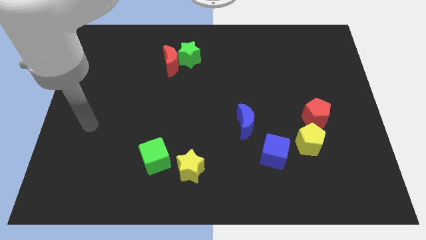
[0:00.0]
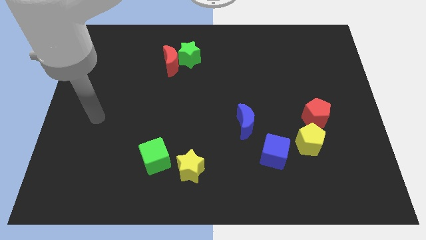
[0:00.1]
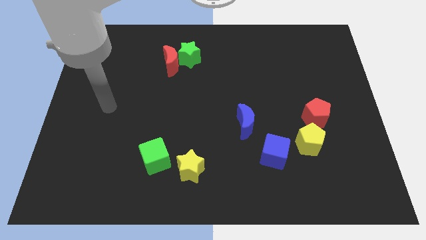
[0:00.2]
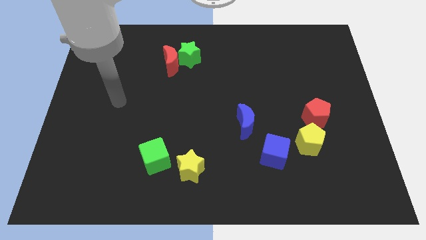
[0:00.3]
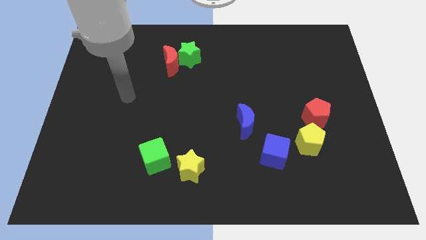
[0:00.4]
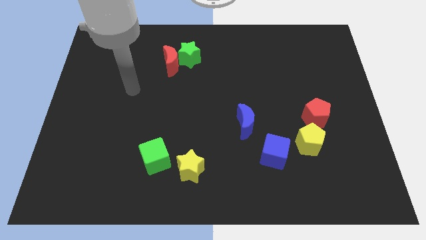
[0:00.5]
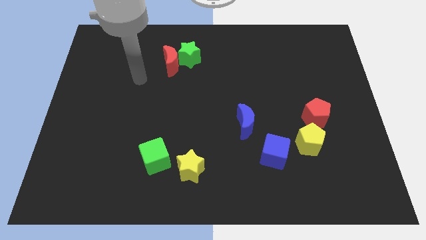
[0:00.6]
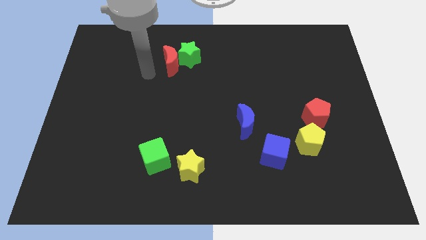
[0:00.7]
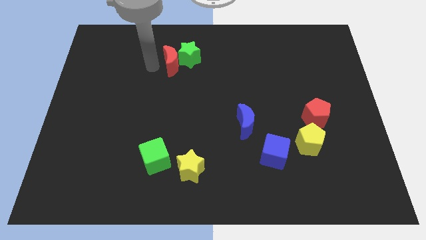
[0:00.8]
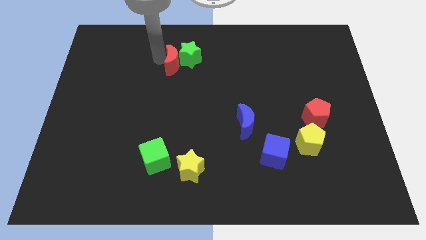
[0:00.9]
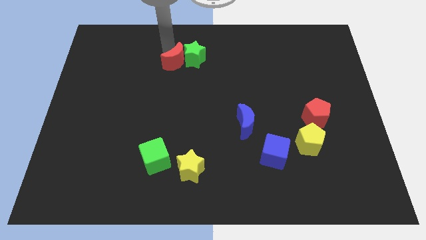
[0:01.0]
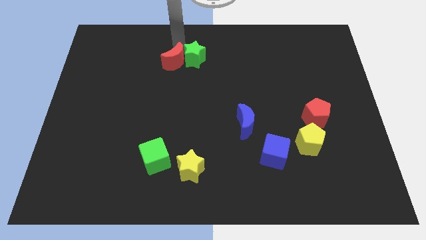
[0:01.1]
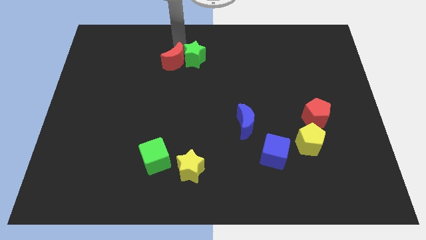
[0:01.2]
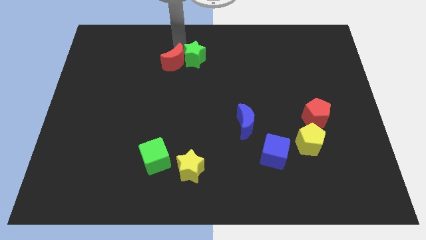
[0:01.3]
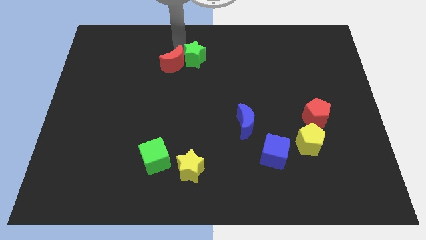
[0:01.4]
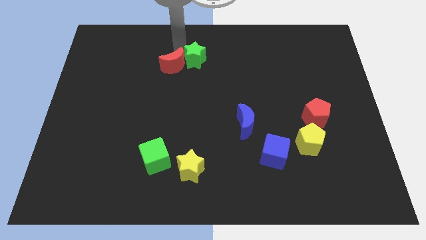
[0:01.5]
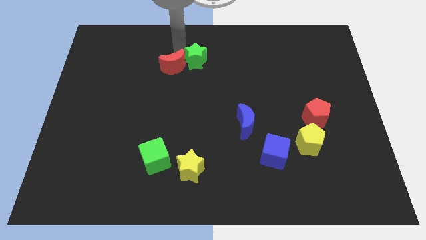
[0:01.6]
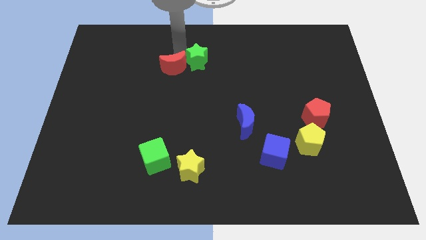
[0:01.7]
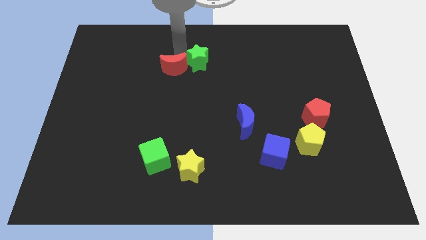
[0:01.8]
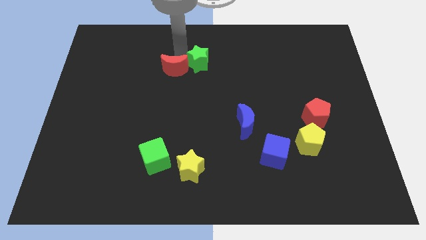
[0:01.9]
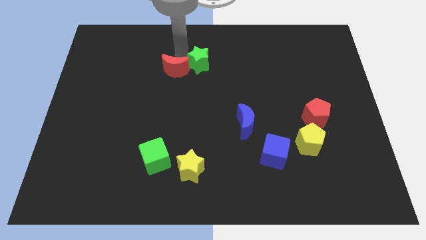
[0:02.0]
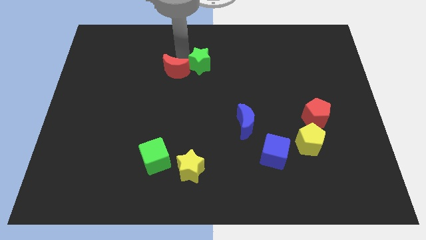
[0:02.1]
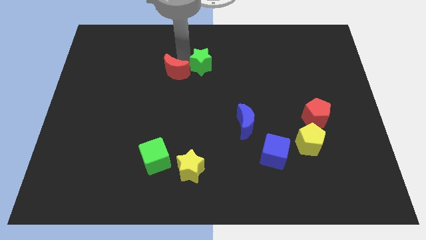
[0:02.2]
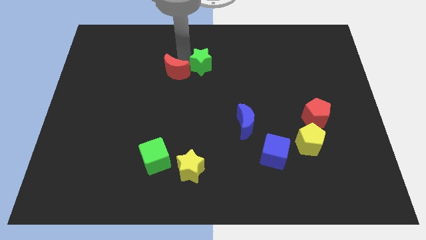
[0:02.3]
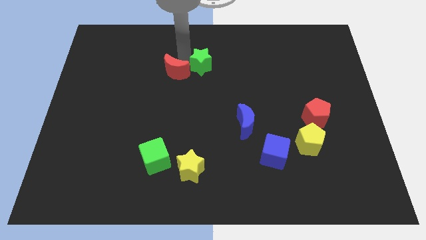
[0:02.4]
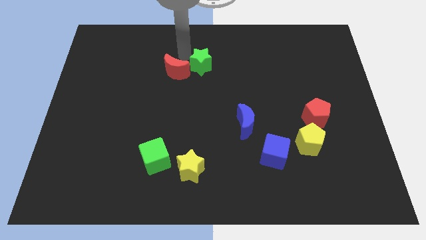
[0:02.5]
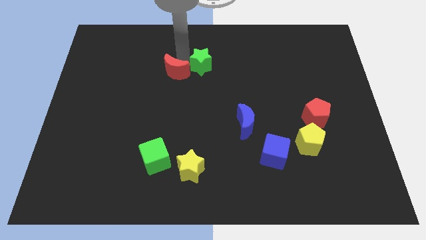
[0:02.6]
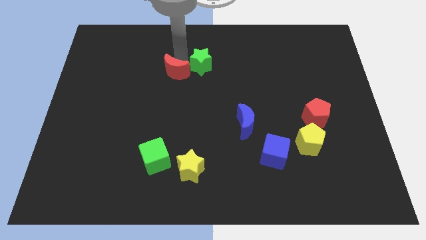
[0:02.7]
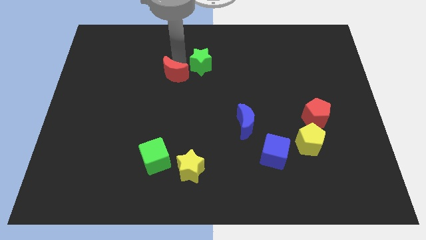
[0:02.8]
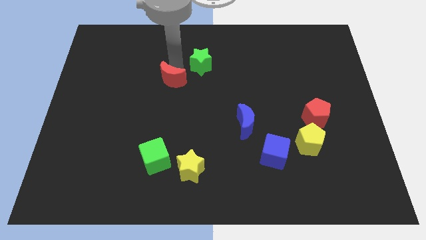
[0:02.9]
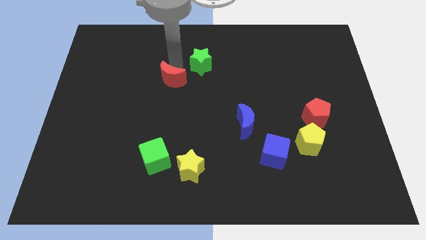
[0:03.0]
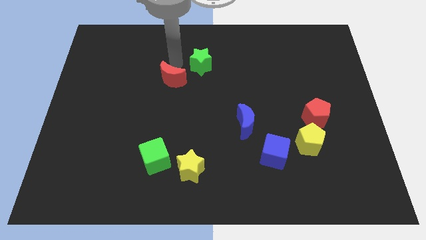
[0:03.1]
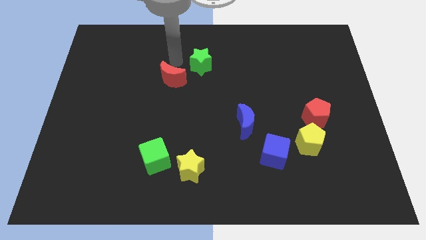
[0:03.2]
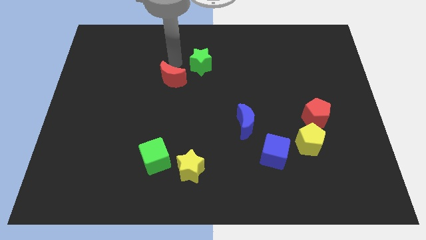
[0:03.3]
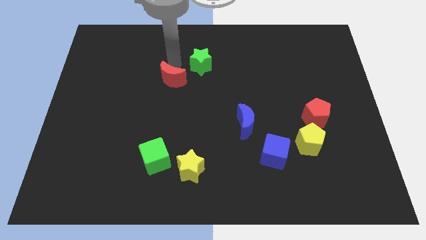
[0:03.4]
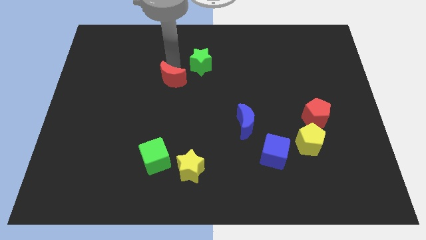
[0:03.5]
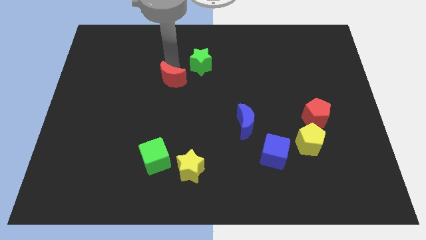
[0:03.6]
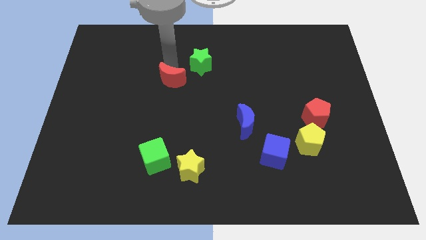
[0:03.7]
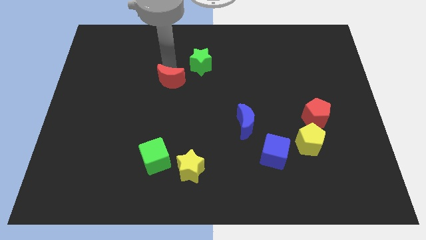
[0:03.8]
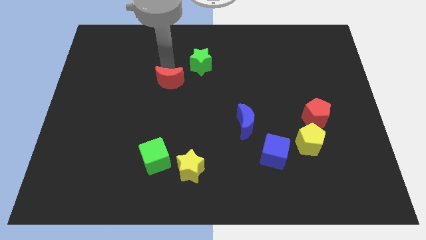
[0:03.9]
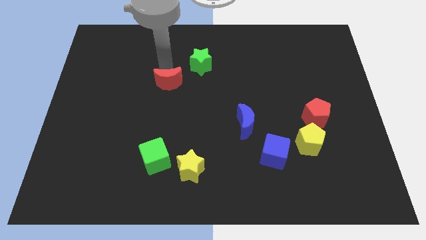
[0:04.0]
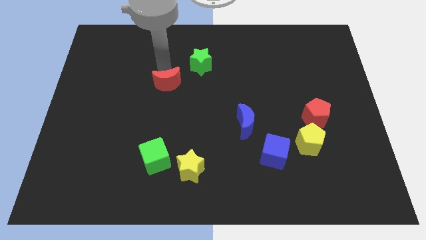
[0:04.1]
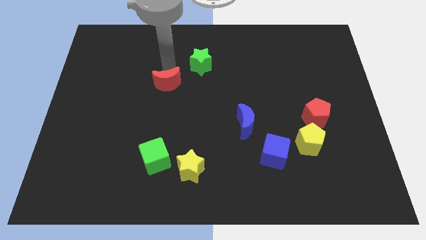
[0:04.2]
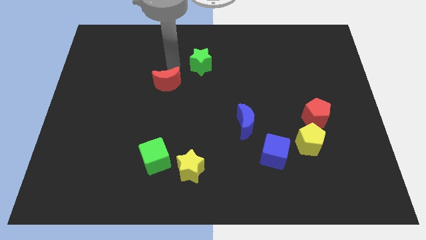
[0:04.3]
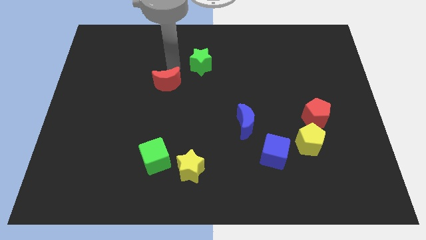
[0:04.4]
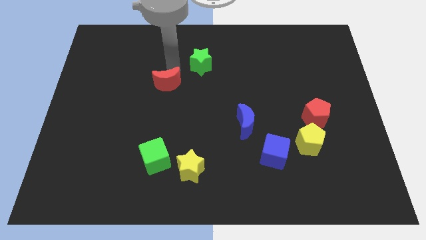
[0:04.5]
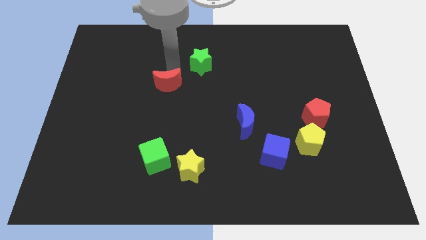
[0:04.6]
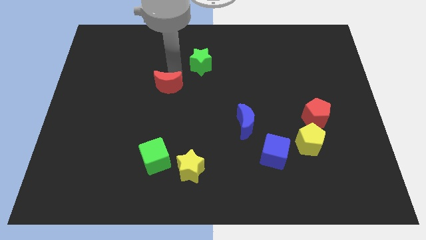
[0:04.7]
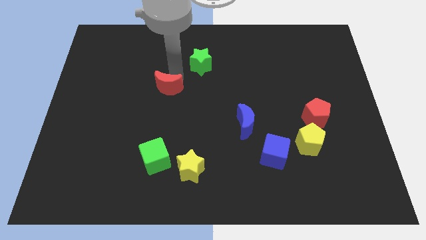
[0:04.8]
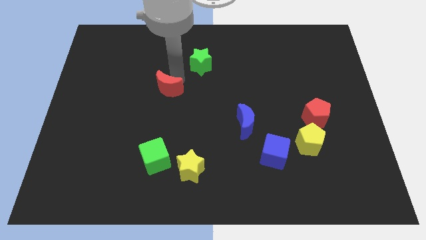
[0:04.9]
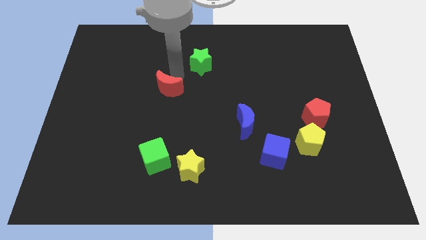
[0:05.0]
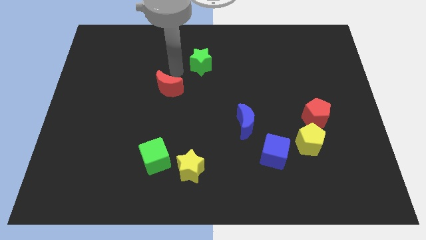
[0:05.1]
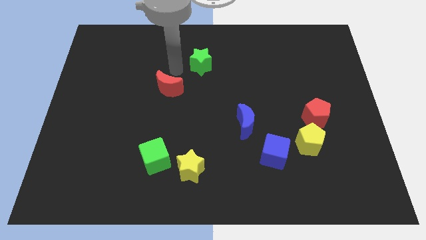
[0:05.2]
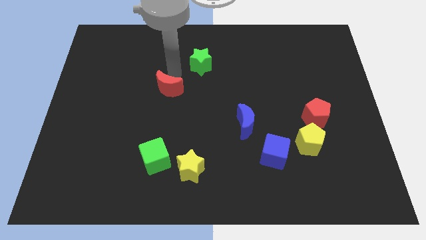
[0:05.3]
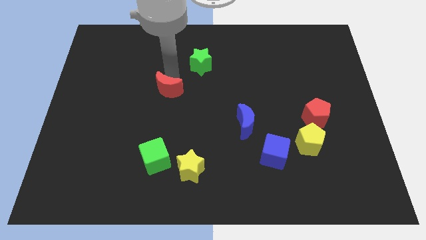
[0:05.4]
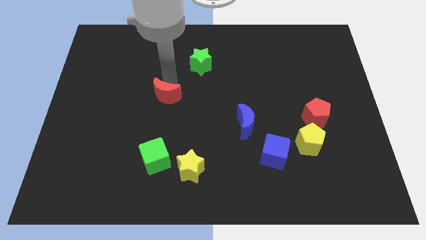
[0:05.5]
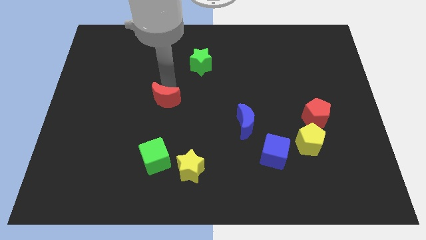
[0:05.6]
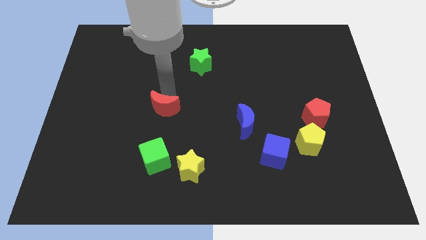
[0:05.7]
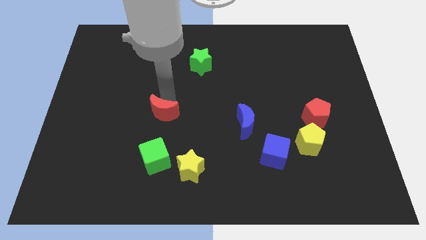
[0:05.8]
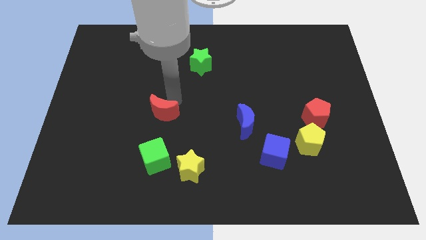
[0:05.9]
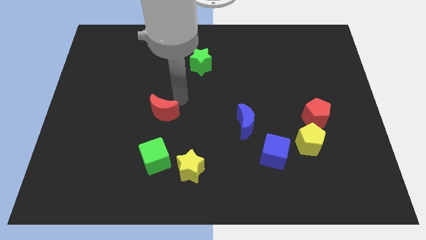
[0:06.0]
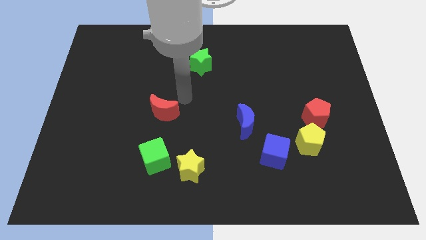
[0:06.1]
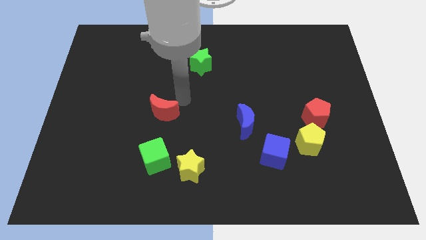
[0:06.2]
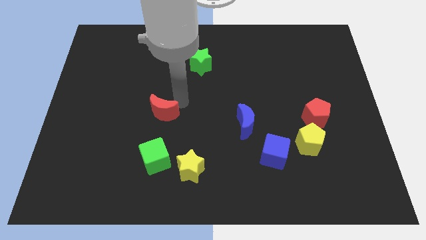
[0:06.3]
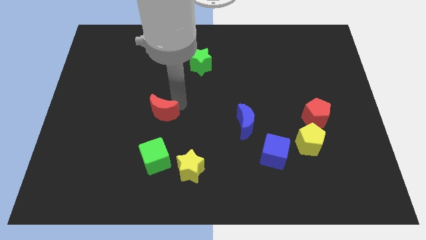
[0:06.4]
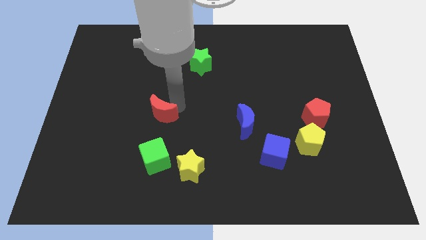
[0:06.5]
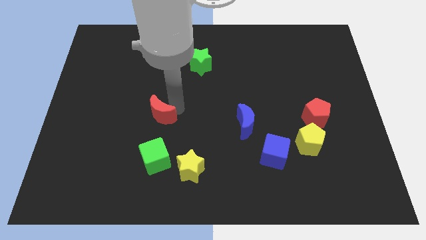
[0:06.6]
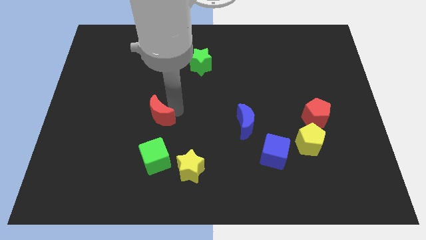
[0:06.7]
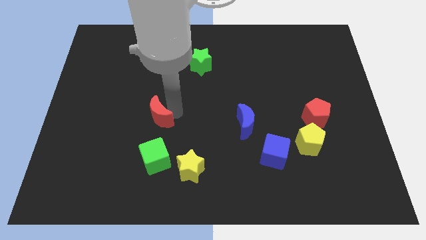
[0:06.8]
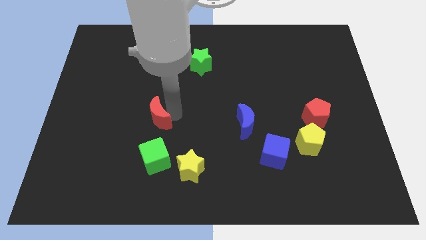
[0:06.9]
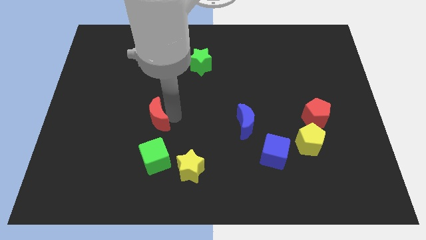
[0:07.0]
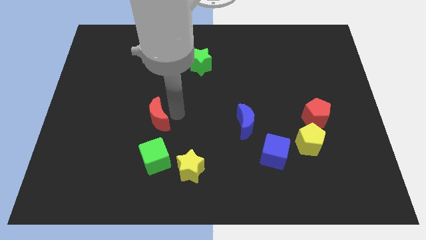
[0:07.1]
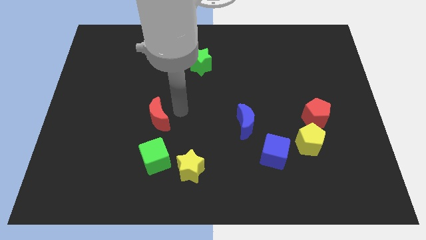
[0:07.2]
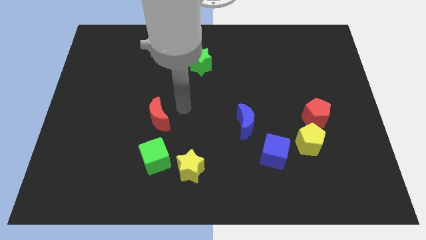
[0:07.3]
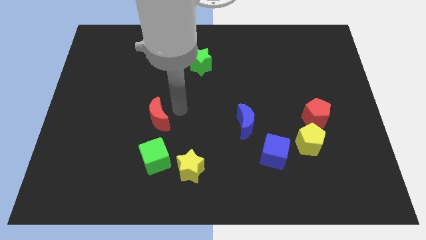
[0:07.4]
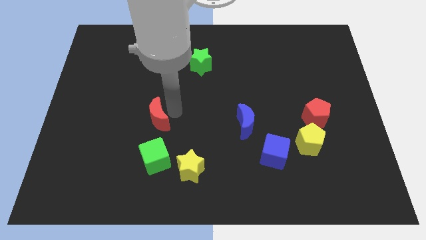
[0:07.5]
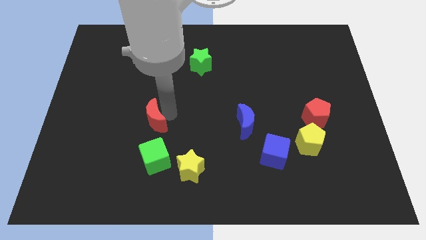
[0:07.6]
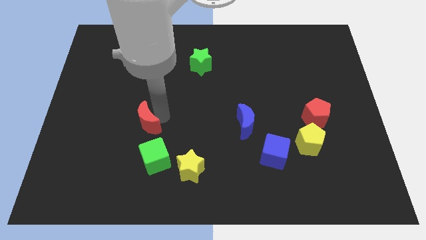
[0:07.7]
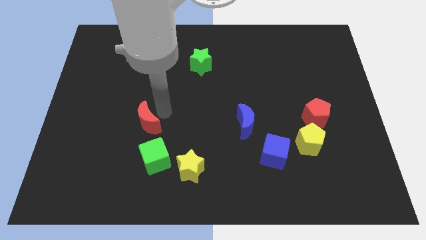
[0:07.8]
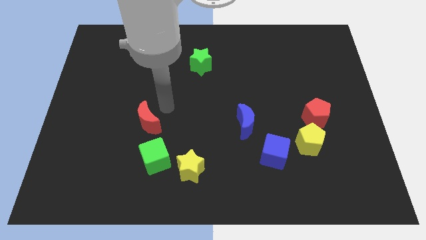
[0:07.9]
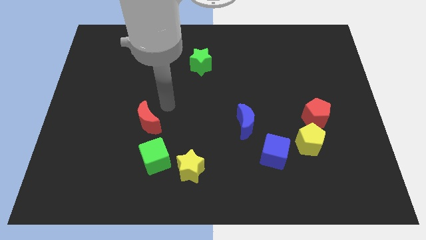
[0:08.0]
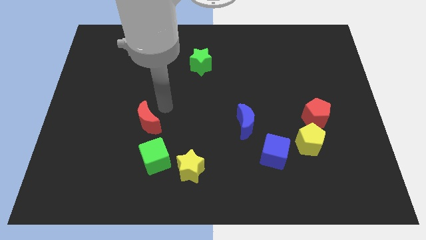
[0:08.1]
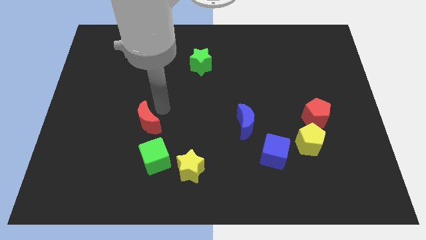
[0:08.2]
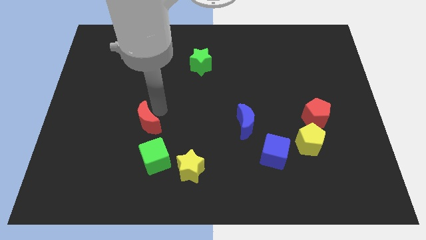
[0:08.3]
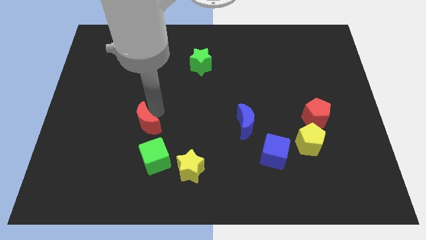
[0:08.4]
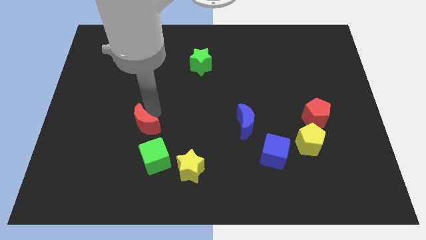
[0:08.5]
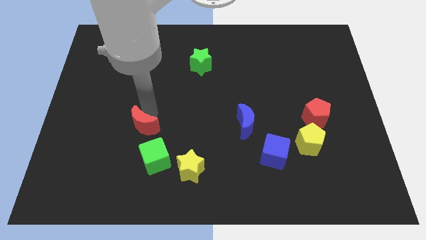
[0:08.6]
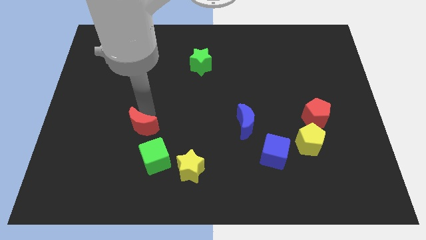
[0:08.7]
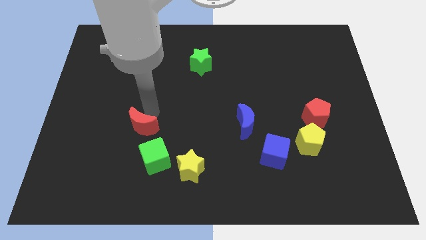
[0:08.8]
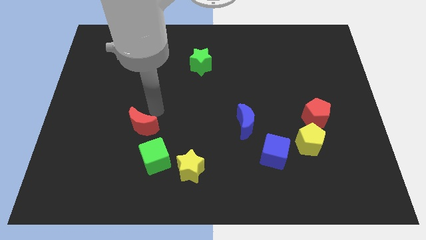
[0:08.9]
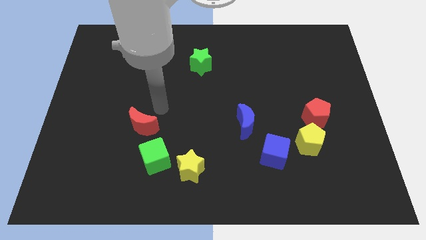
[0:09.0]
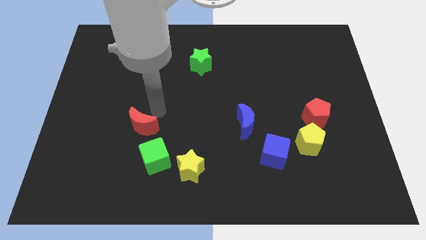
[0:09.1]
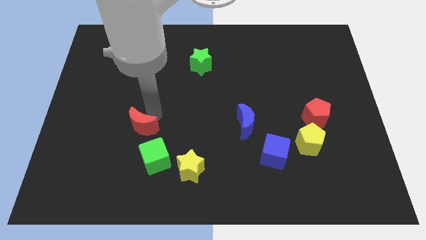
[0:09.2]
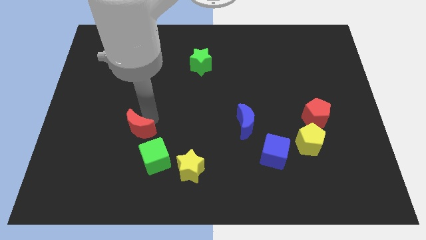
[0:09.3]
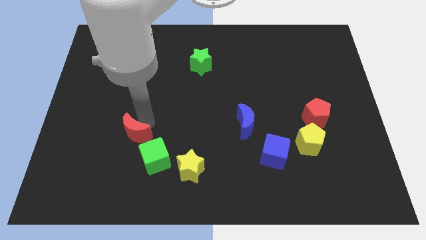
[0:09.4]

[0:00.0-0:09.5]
move the red moon down
